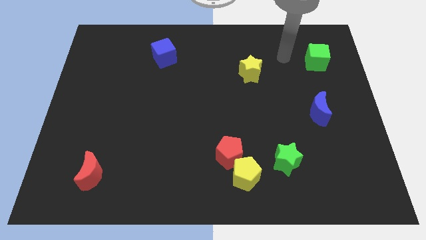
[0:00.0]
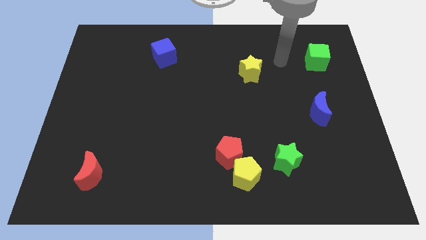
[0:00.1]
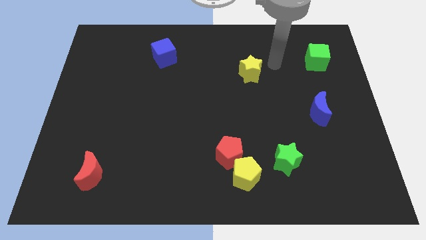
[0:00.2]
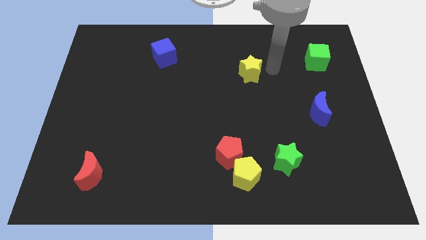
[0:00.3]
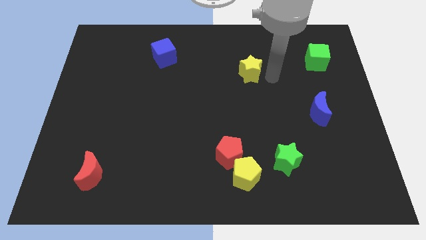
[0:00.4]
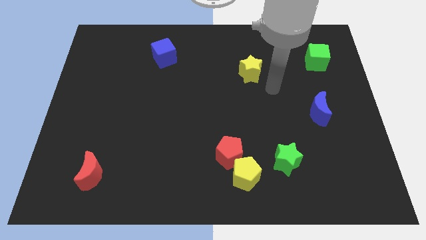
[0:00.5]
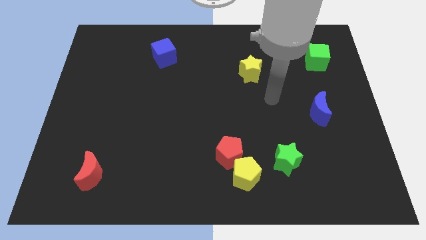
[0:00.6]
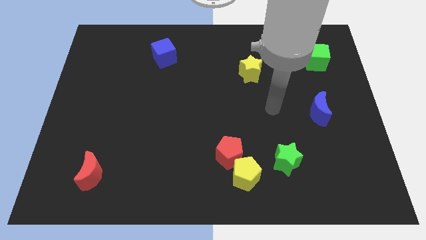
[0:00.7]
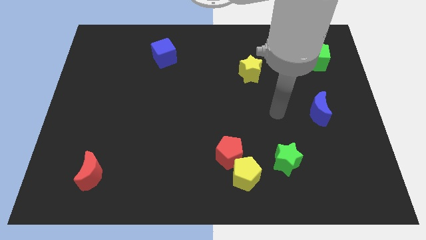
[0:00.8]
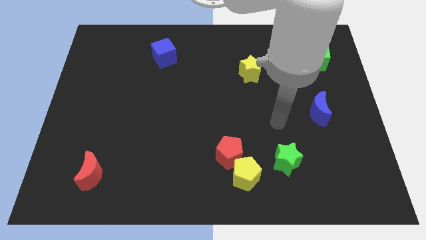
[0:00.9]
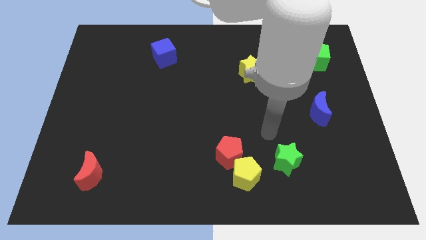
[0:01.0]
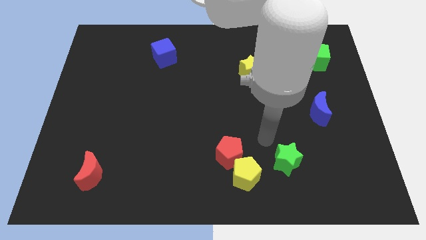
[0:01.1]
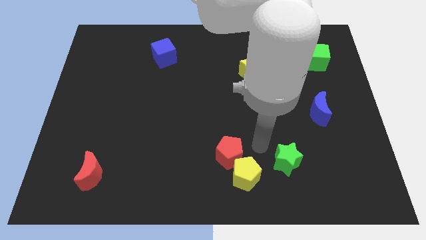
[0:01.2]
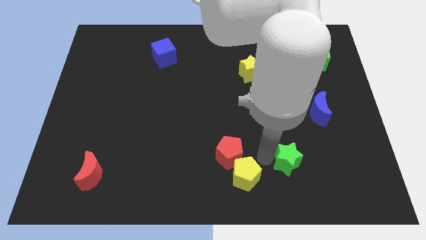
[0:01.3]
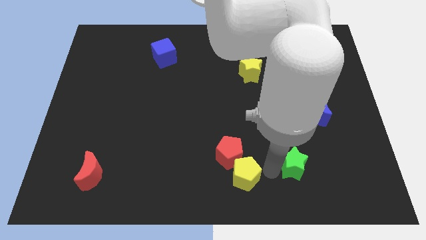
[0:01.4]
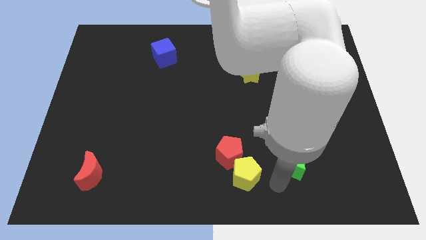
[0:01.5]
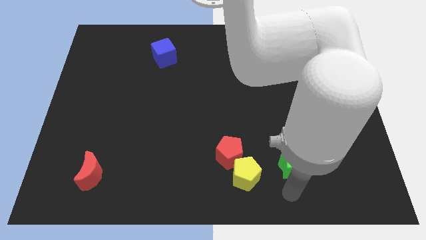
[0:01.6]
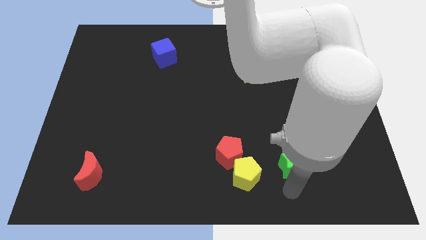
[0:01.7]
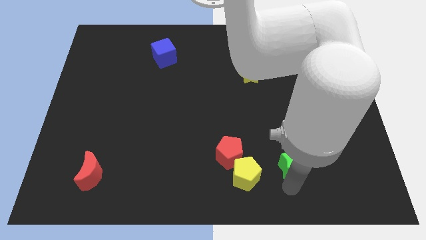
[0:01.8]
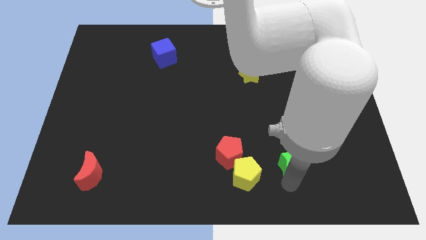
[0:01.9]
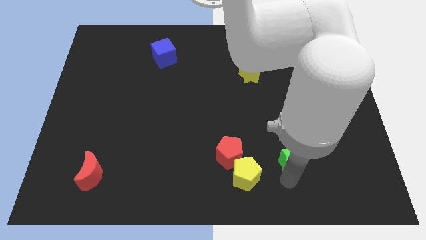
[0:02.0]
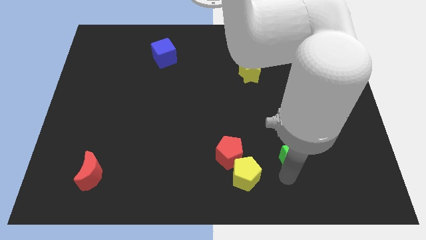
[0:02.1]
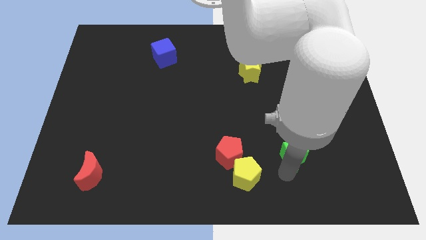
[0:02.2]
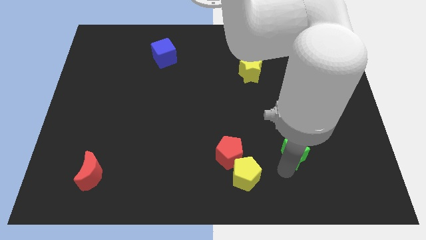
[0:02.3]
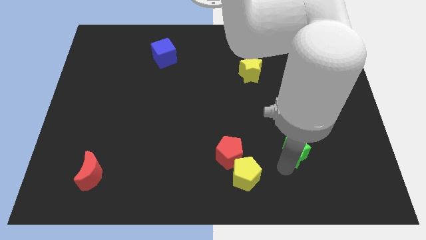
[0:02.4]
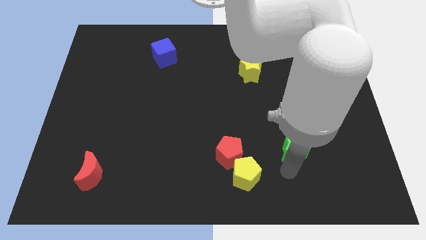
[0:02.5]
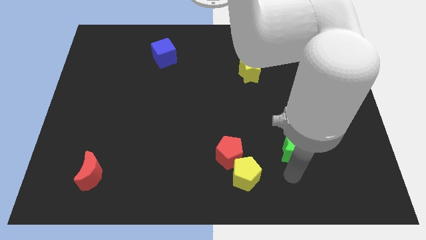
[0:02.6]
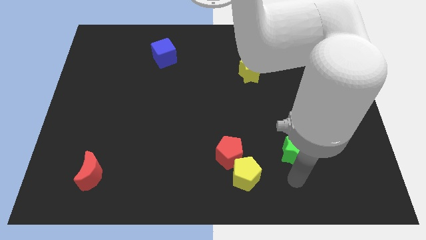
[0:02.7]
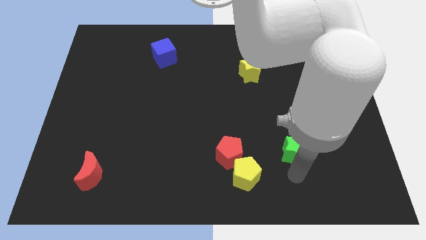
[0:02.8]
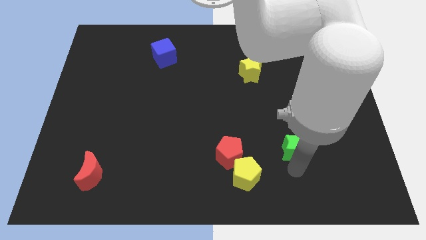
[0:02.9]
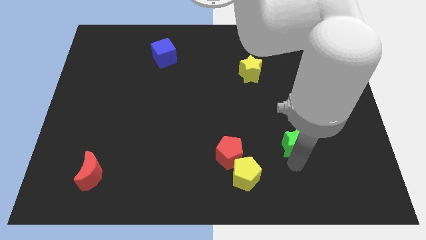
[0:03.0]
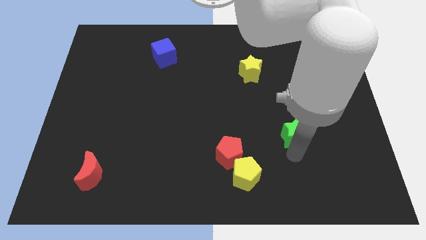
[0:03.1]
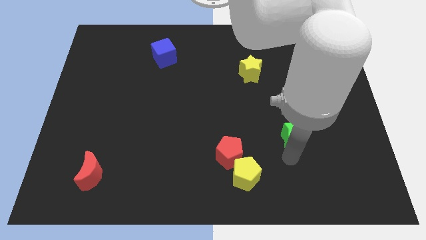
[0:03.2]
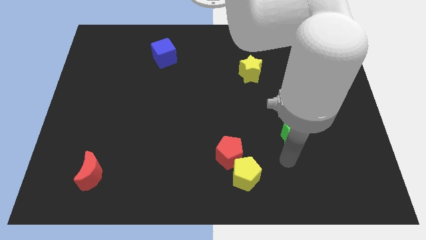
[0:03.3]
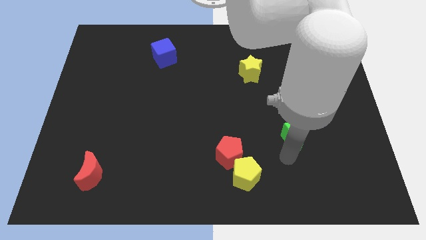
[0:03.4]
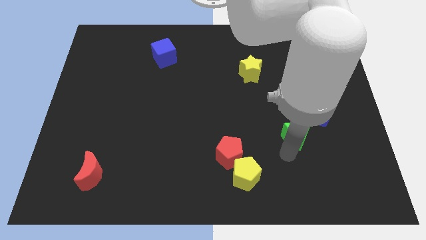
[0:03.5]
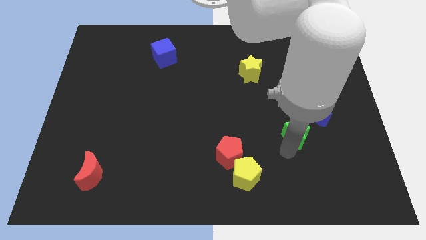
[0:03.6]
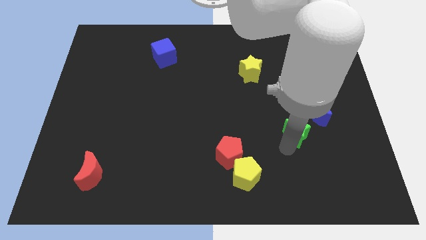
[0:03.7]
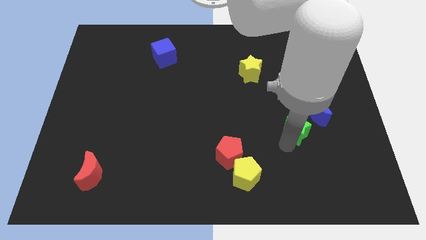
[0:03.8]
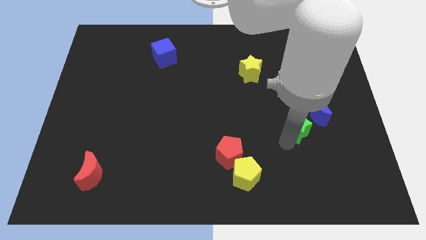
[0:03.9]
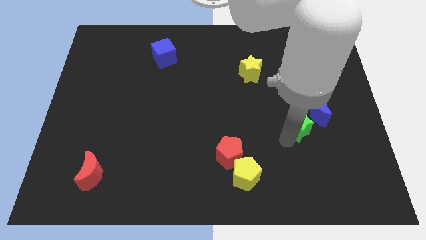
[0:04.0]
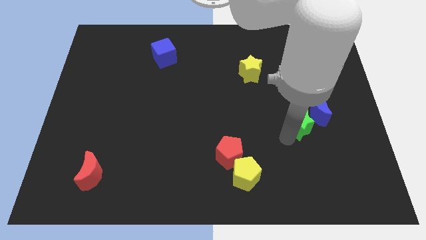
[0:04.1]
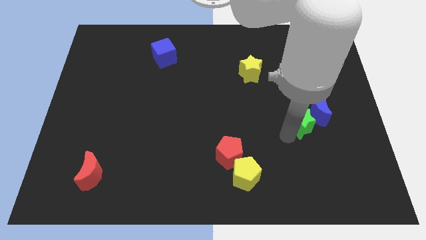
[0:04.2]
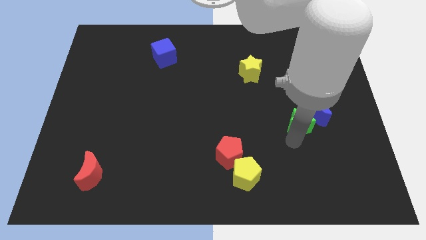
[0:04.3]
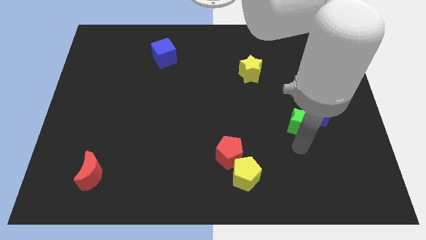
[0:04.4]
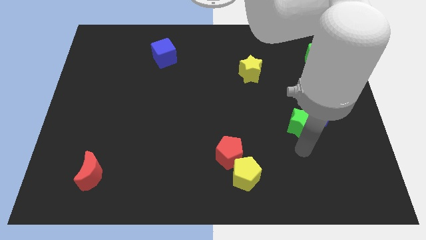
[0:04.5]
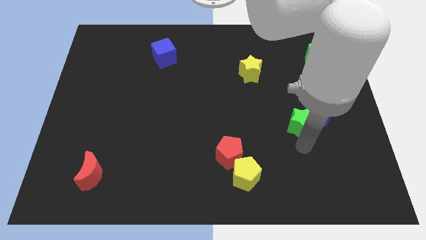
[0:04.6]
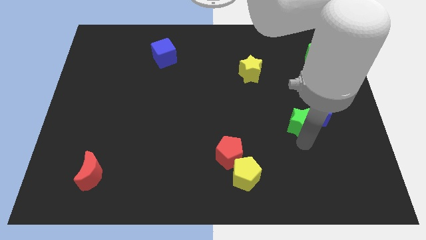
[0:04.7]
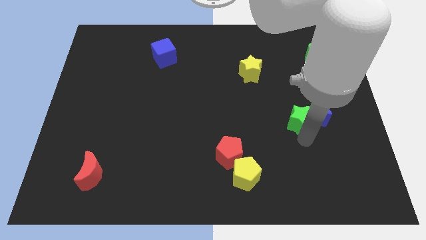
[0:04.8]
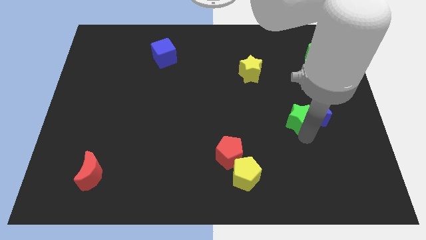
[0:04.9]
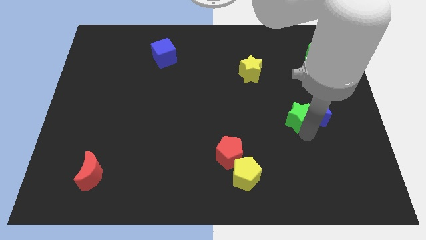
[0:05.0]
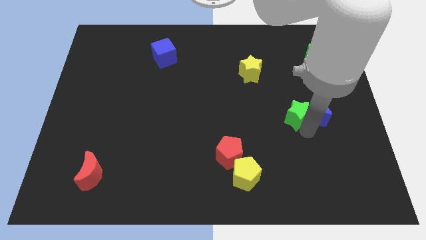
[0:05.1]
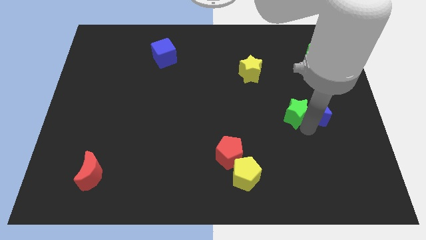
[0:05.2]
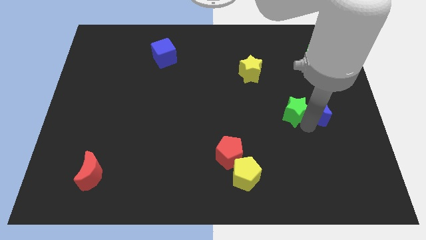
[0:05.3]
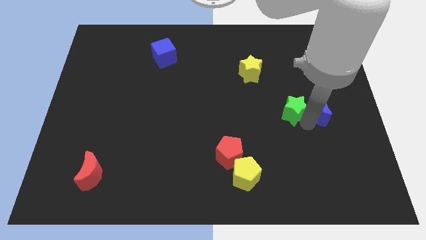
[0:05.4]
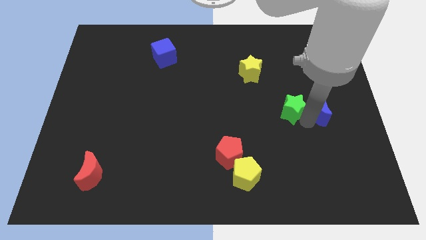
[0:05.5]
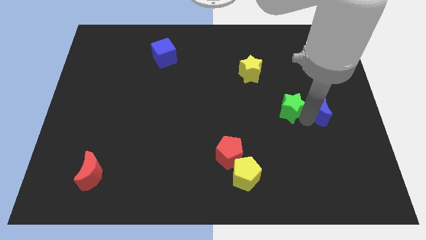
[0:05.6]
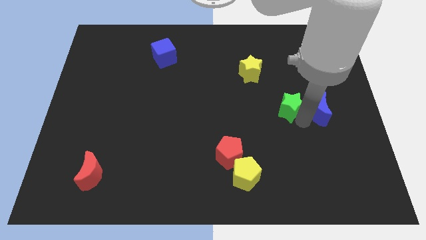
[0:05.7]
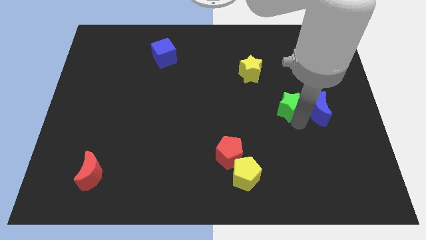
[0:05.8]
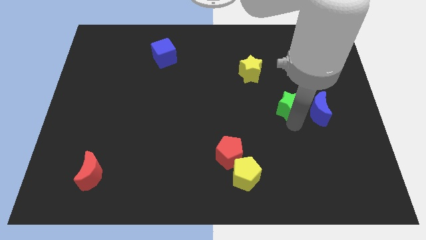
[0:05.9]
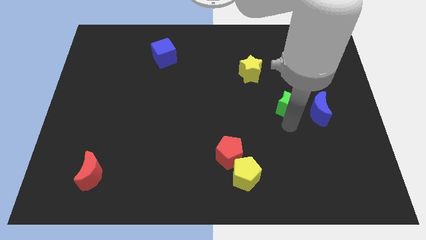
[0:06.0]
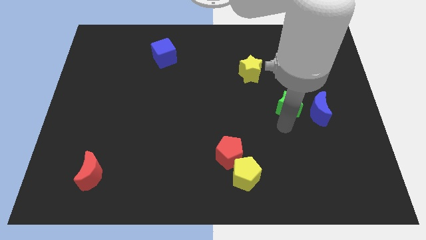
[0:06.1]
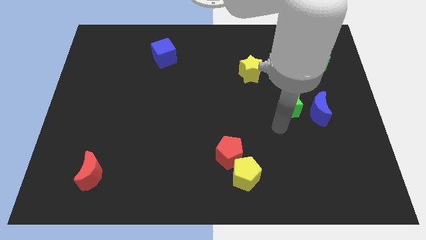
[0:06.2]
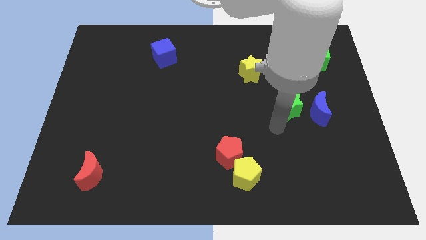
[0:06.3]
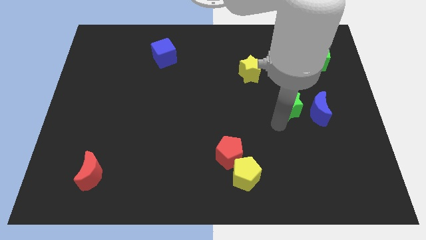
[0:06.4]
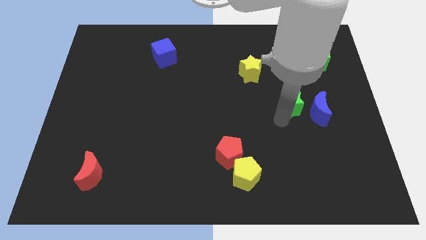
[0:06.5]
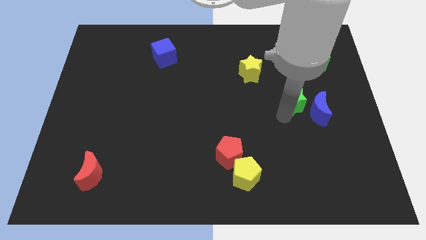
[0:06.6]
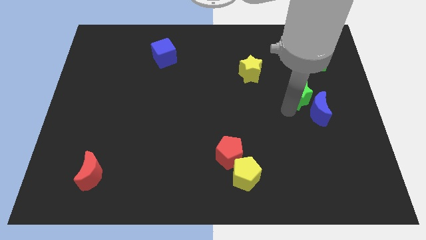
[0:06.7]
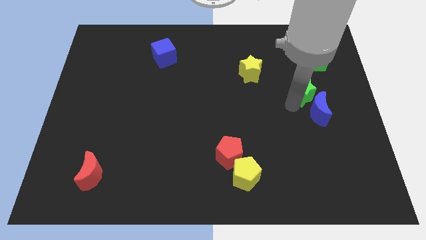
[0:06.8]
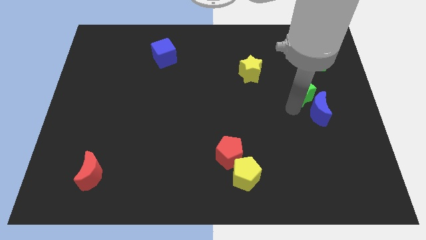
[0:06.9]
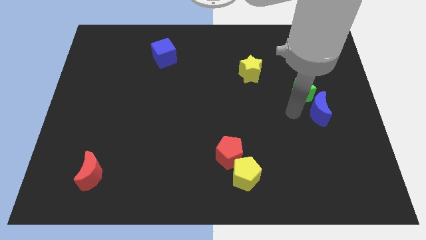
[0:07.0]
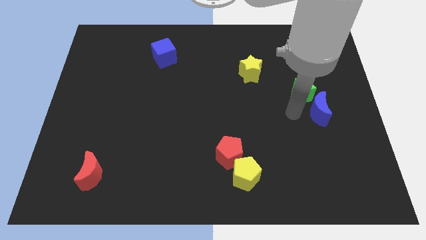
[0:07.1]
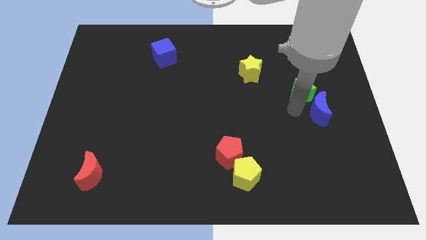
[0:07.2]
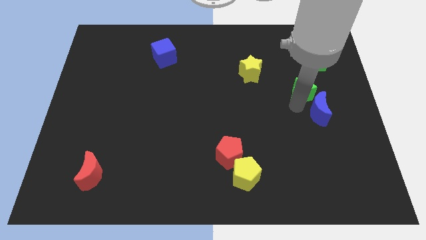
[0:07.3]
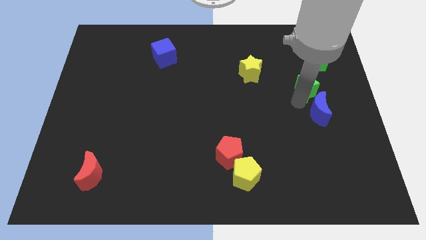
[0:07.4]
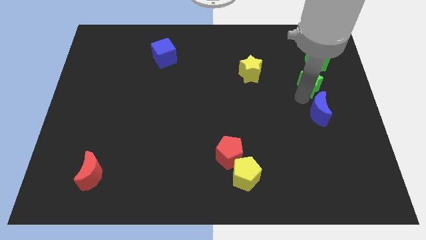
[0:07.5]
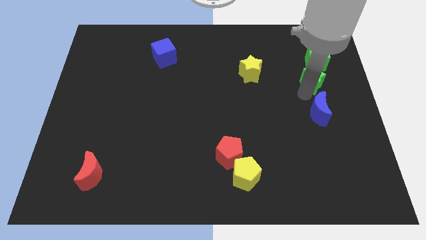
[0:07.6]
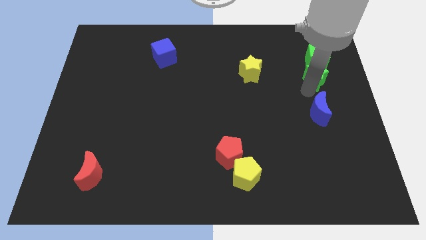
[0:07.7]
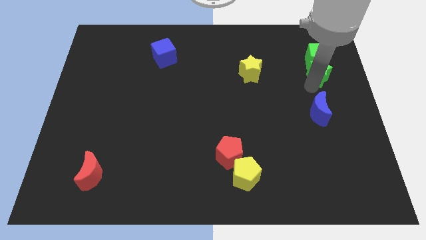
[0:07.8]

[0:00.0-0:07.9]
slide the green star next to the green cube
